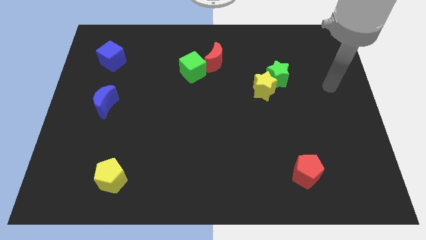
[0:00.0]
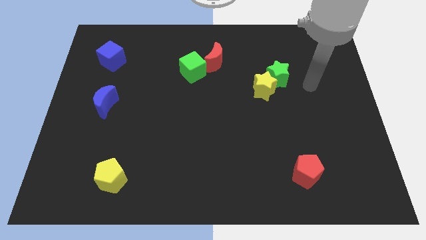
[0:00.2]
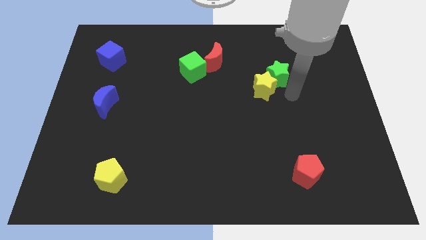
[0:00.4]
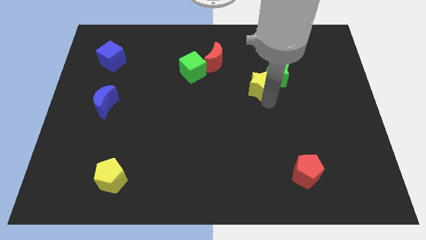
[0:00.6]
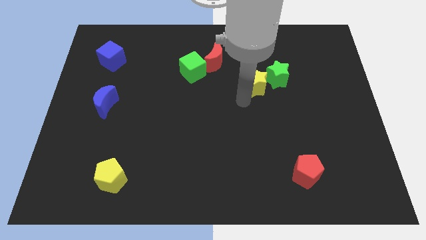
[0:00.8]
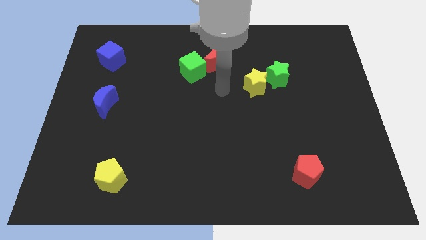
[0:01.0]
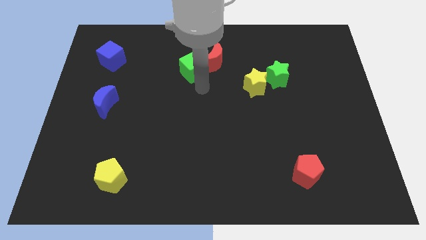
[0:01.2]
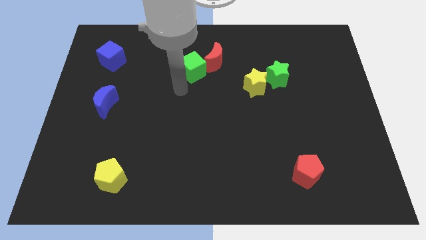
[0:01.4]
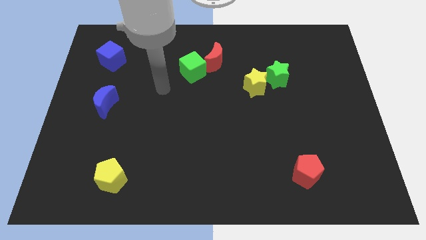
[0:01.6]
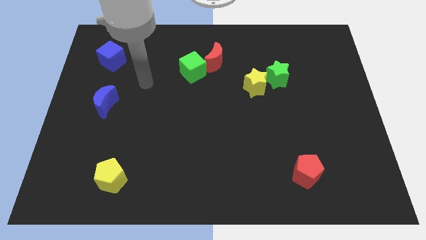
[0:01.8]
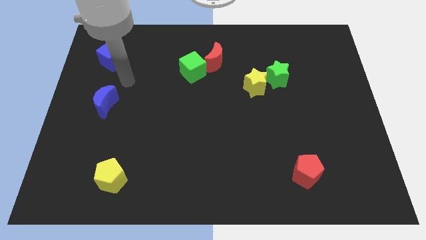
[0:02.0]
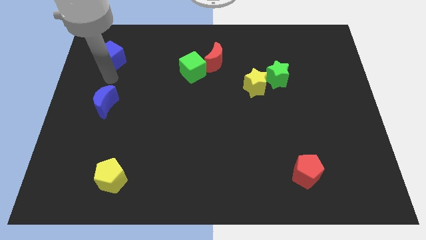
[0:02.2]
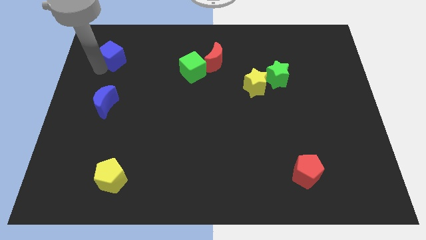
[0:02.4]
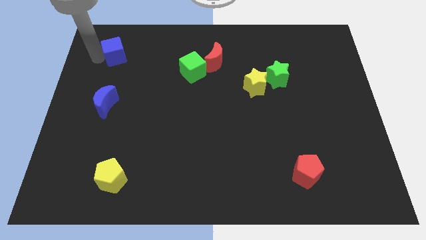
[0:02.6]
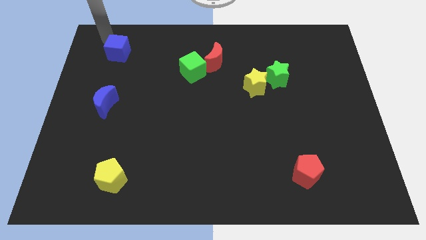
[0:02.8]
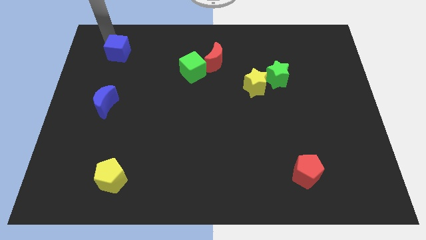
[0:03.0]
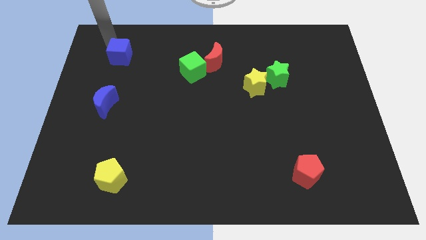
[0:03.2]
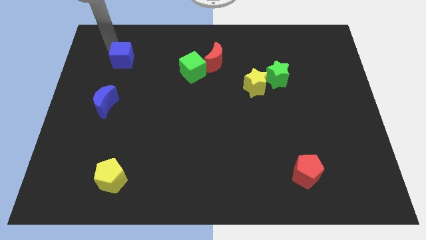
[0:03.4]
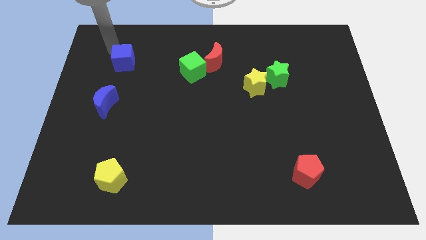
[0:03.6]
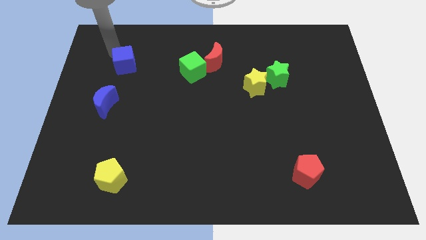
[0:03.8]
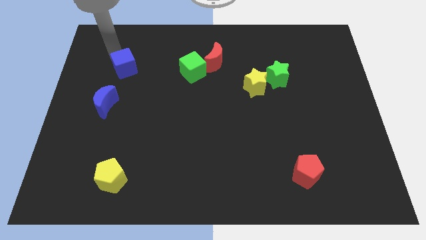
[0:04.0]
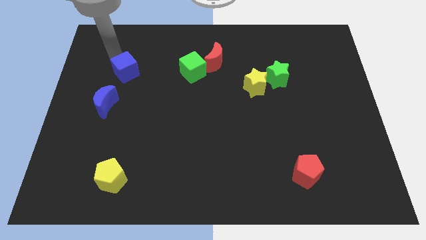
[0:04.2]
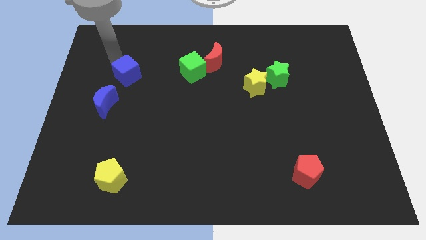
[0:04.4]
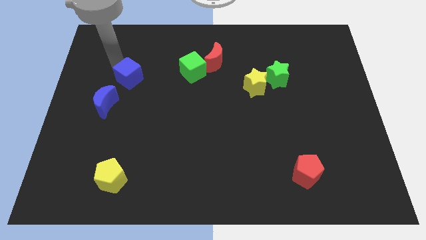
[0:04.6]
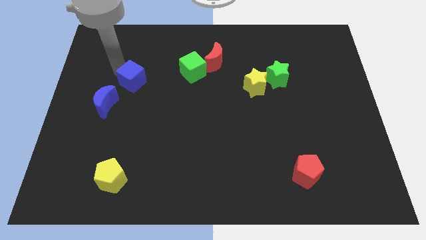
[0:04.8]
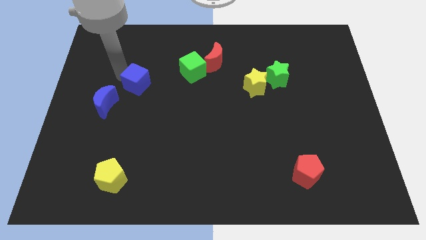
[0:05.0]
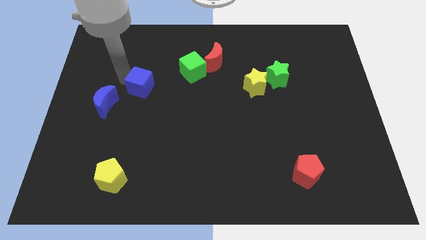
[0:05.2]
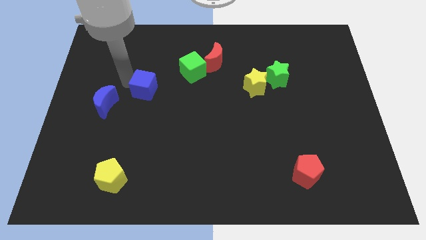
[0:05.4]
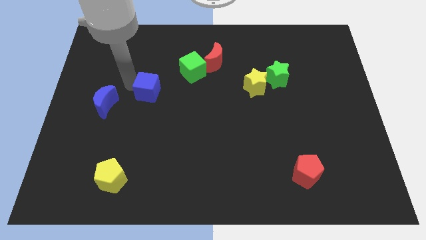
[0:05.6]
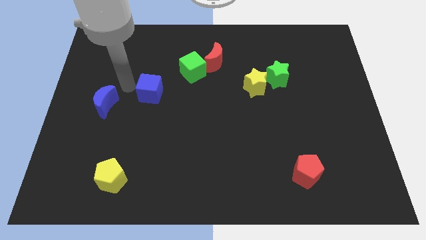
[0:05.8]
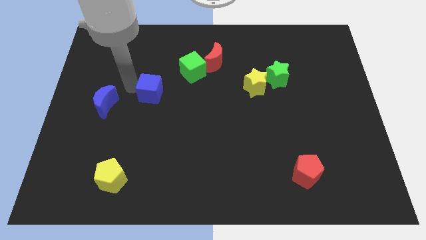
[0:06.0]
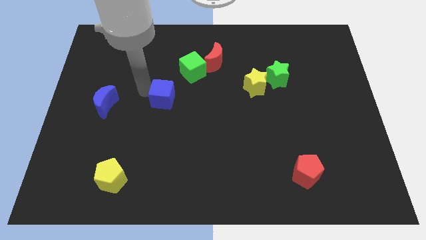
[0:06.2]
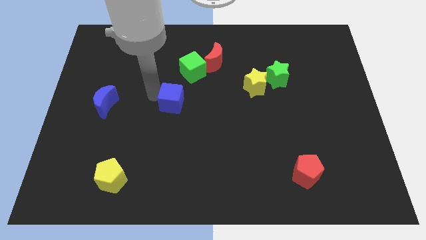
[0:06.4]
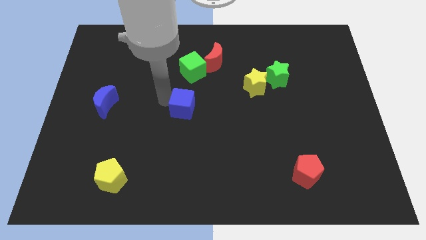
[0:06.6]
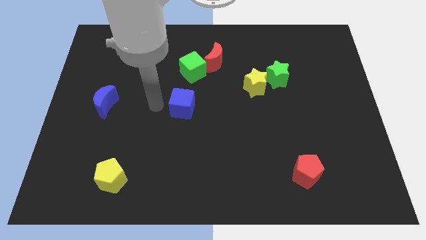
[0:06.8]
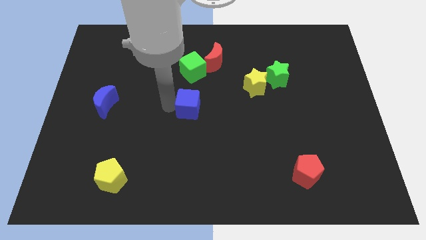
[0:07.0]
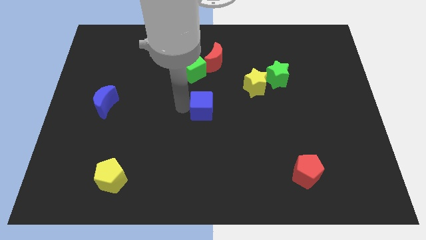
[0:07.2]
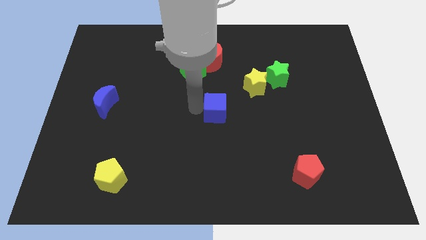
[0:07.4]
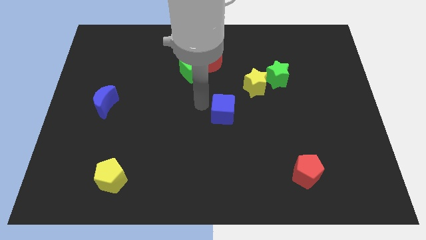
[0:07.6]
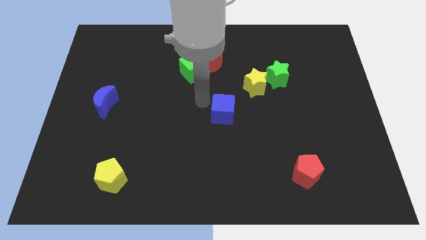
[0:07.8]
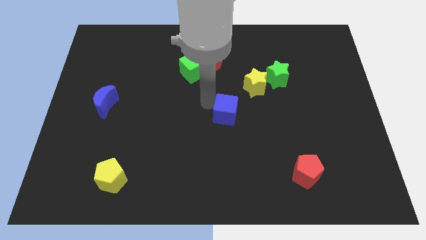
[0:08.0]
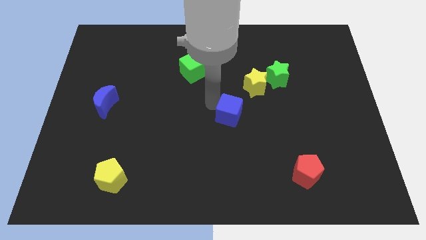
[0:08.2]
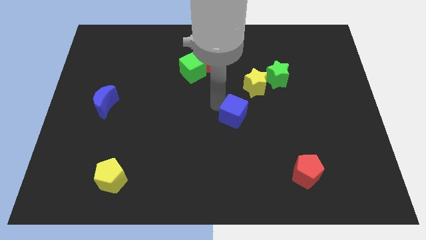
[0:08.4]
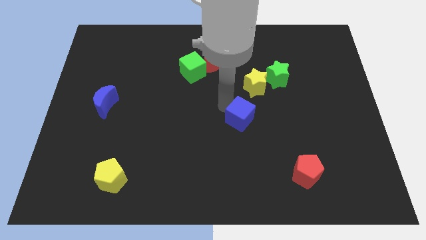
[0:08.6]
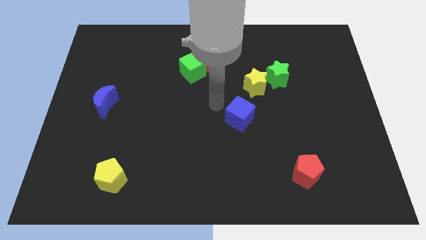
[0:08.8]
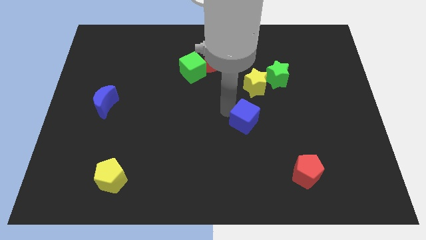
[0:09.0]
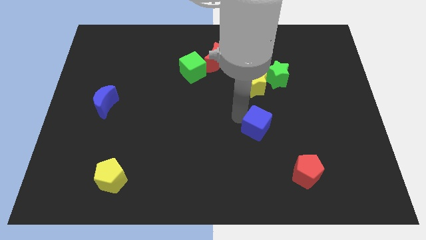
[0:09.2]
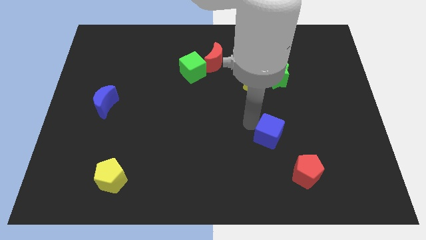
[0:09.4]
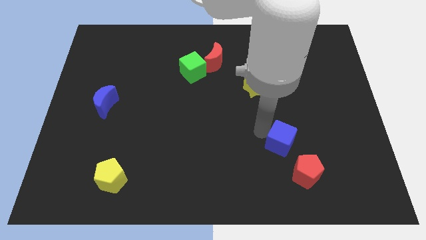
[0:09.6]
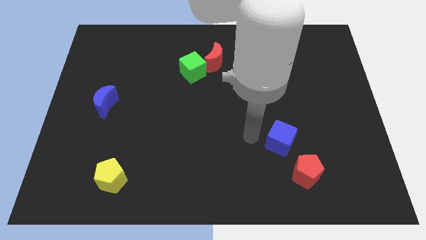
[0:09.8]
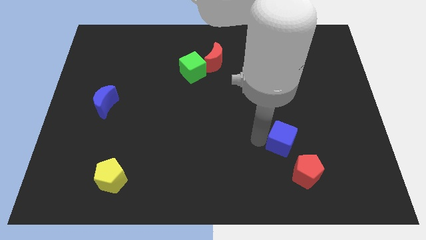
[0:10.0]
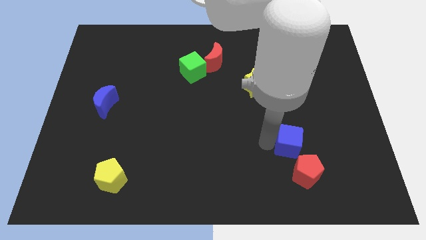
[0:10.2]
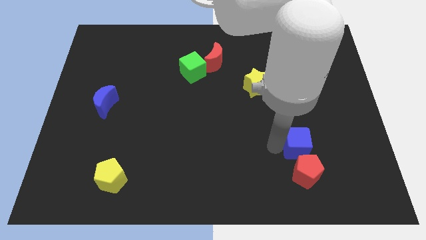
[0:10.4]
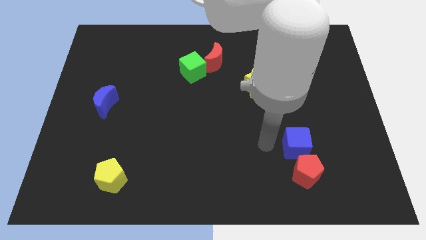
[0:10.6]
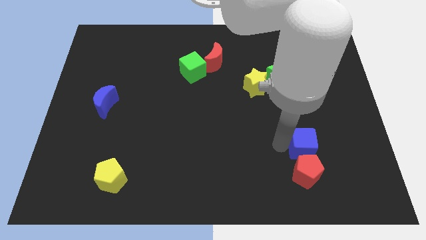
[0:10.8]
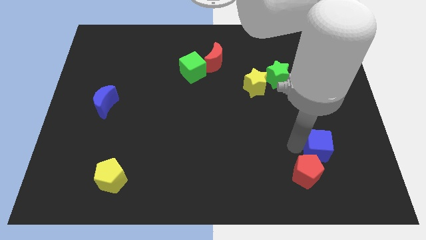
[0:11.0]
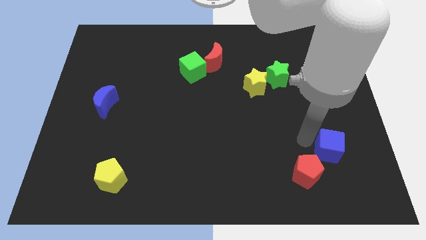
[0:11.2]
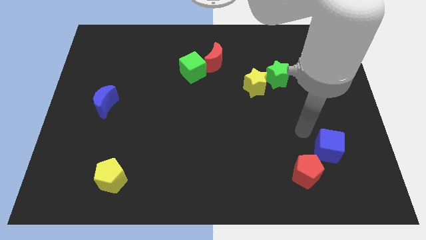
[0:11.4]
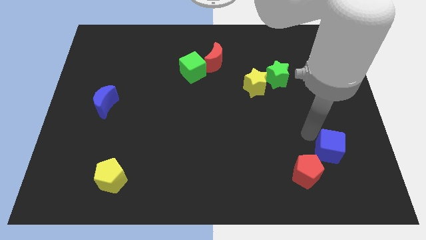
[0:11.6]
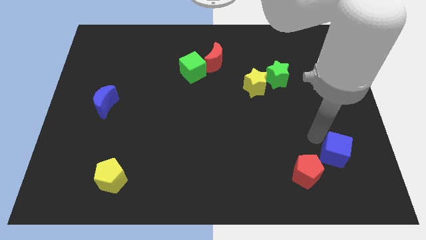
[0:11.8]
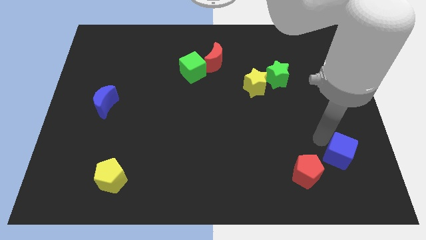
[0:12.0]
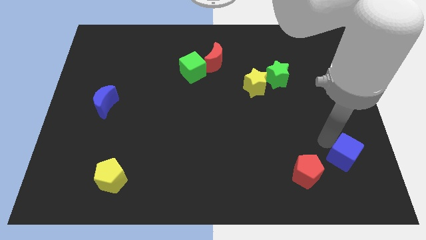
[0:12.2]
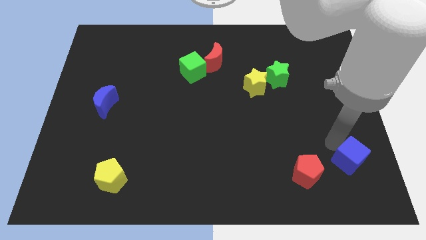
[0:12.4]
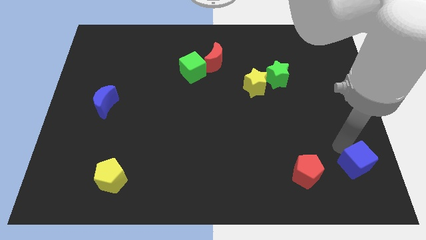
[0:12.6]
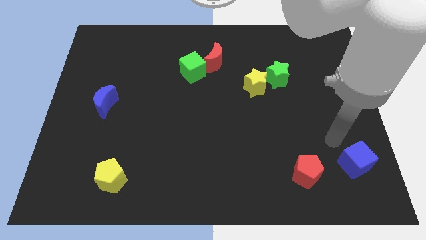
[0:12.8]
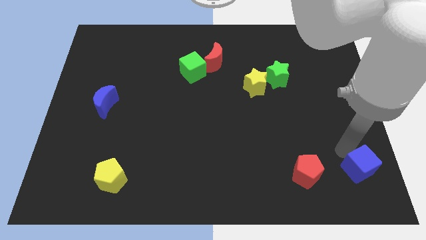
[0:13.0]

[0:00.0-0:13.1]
move the blue cube to the bottom right
